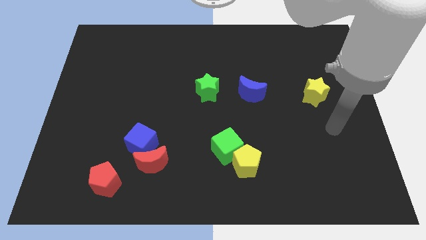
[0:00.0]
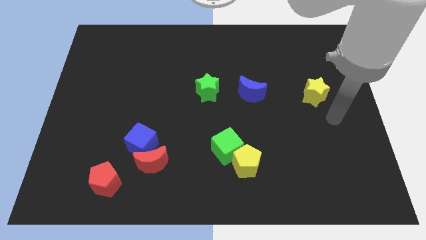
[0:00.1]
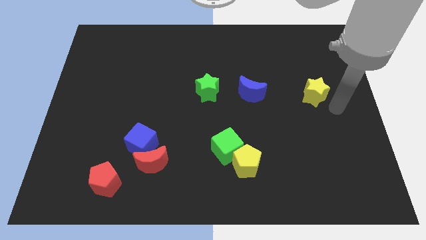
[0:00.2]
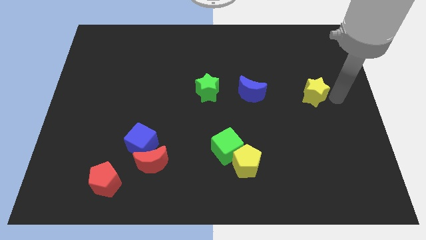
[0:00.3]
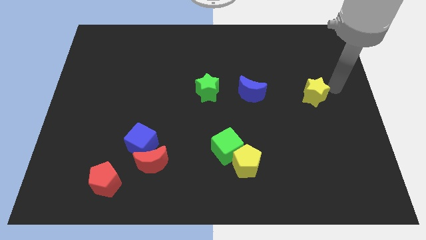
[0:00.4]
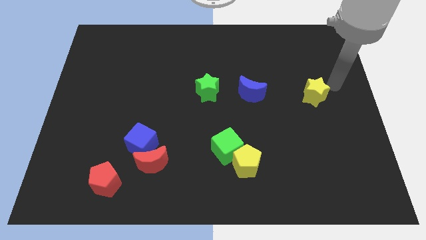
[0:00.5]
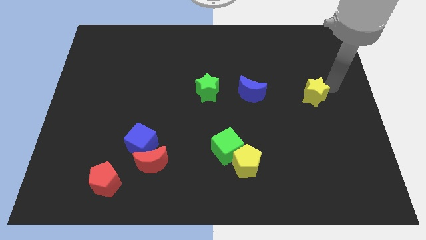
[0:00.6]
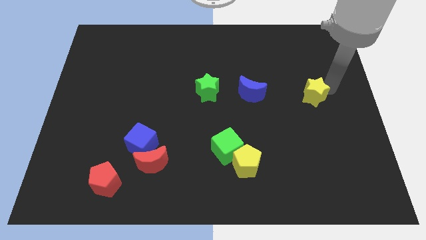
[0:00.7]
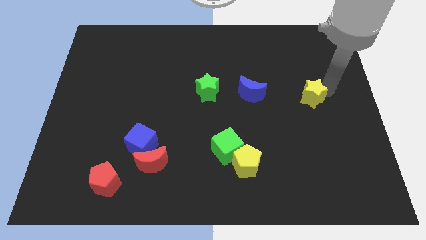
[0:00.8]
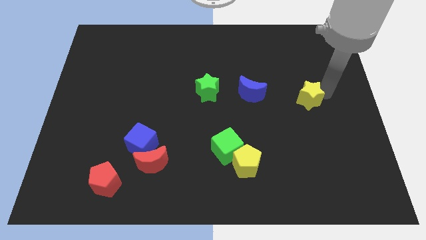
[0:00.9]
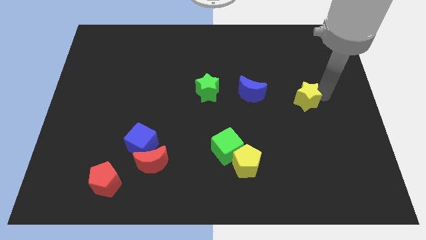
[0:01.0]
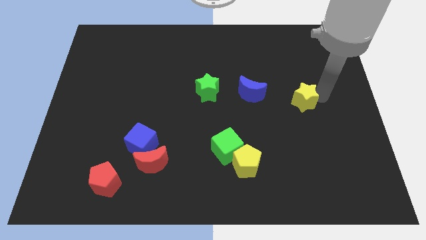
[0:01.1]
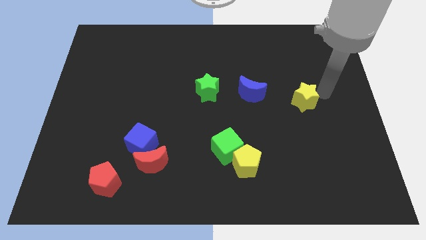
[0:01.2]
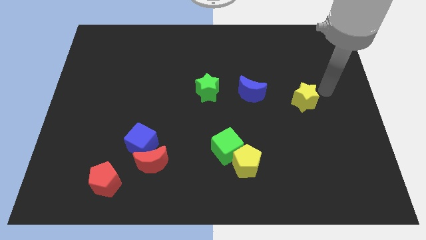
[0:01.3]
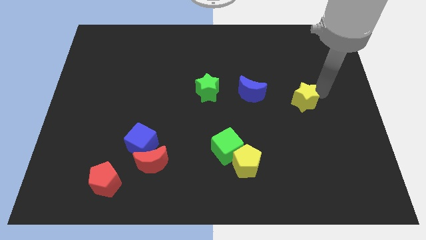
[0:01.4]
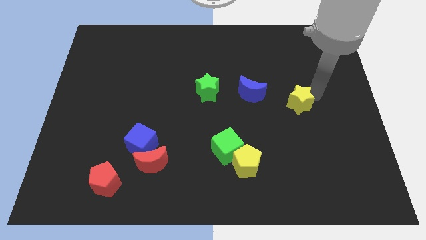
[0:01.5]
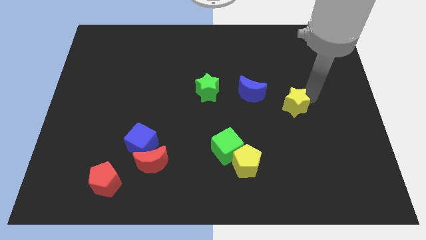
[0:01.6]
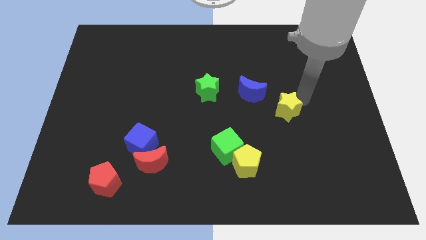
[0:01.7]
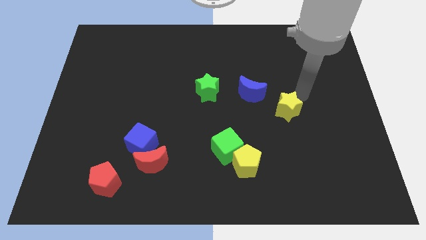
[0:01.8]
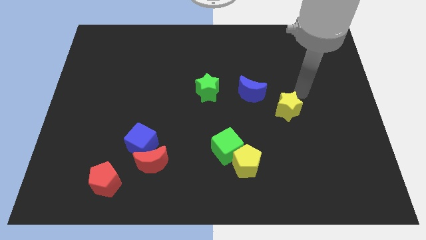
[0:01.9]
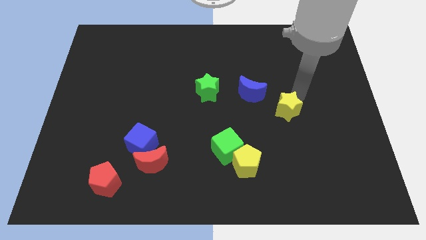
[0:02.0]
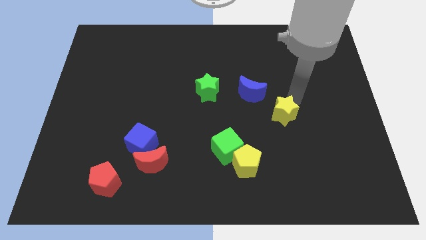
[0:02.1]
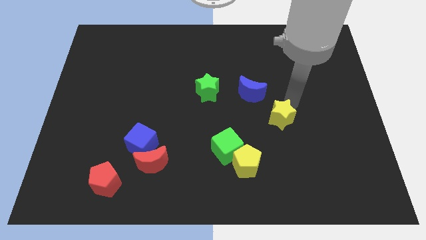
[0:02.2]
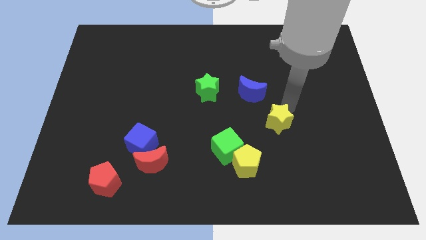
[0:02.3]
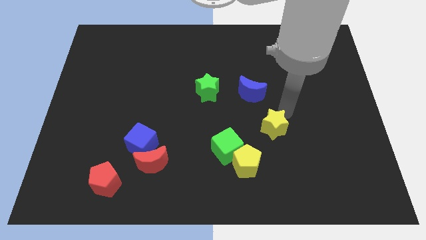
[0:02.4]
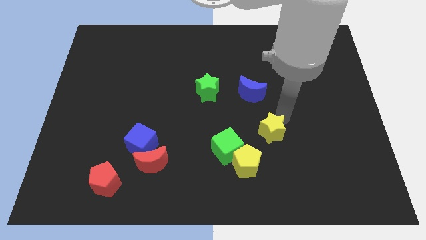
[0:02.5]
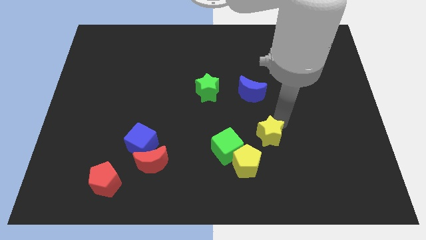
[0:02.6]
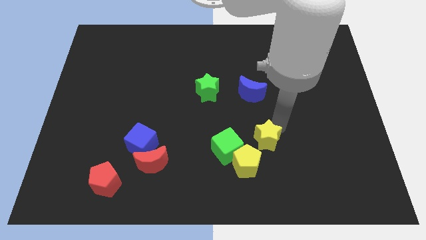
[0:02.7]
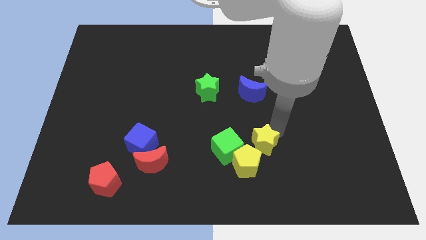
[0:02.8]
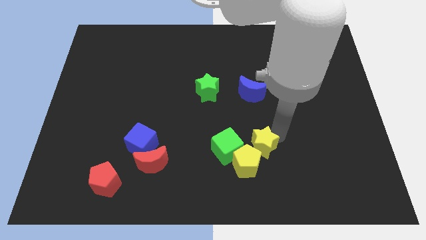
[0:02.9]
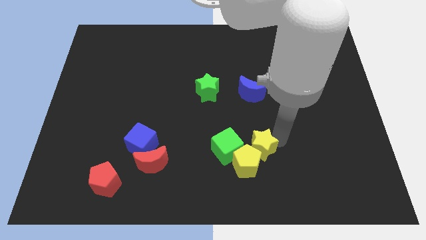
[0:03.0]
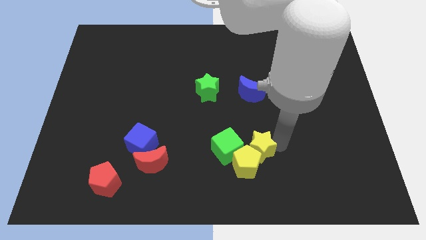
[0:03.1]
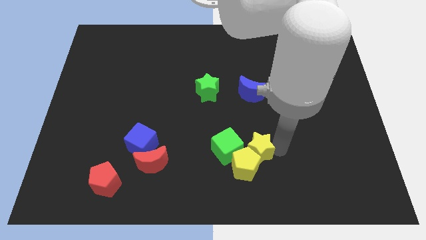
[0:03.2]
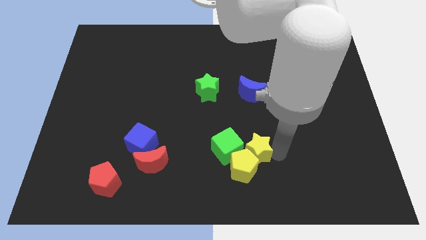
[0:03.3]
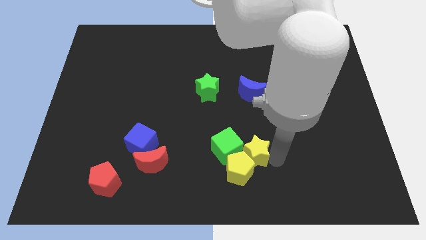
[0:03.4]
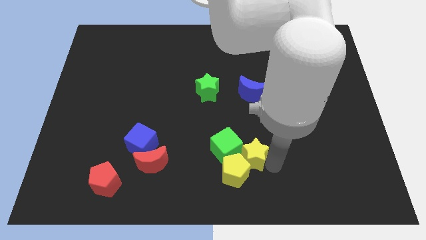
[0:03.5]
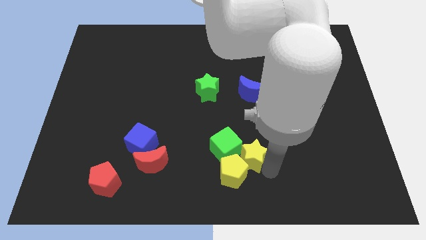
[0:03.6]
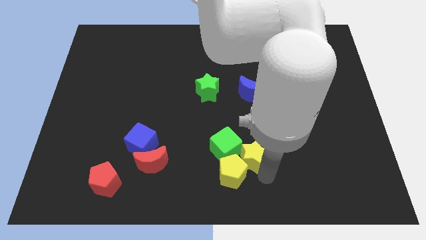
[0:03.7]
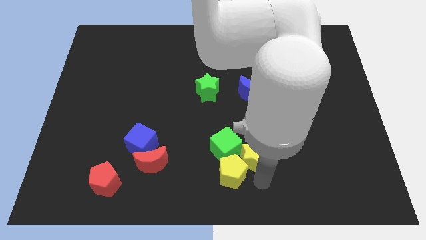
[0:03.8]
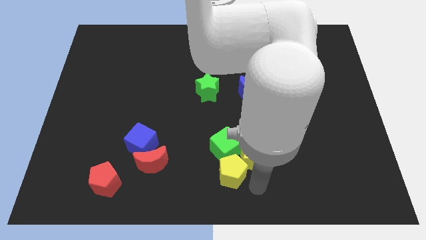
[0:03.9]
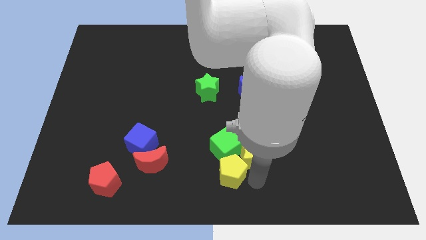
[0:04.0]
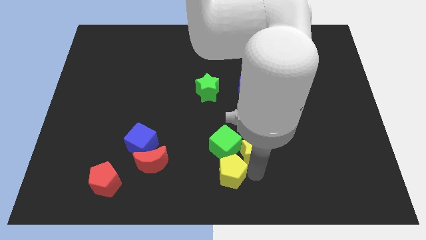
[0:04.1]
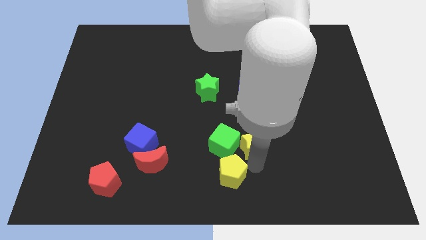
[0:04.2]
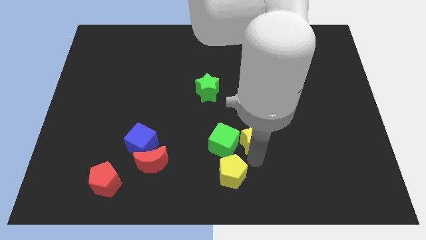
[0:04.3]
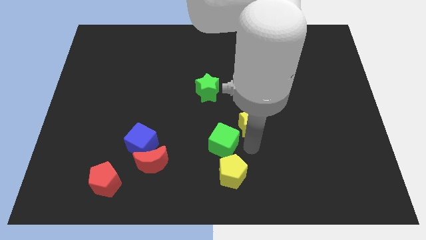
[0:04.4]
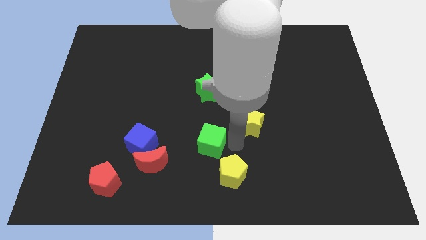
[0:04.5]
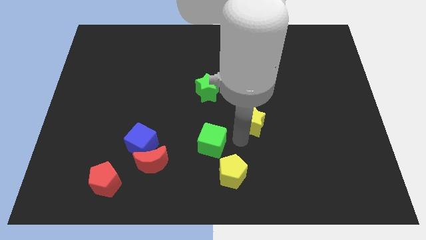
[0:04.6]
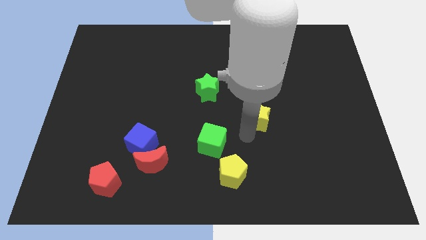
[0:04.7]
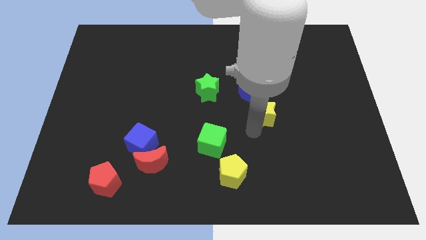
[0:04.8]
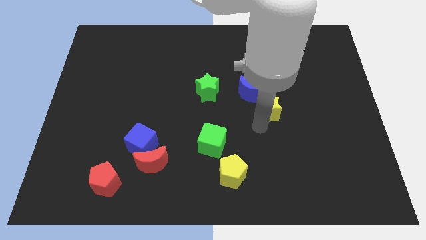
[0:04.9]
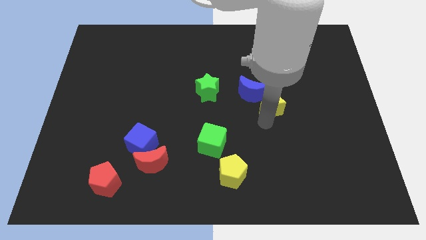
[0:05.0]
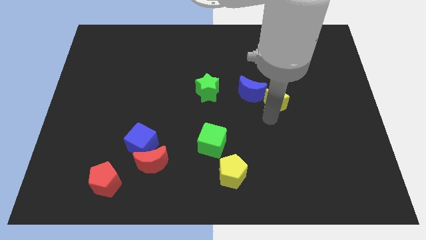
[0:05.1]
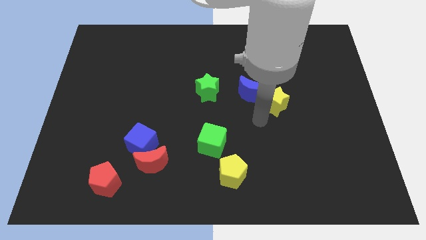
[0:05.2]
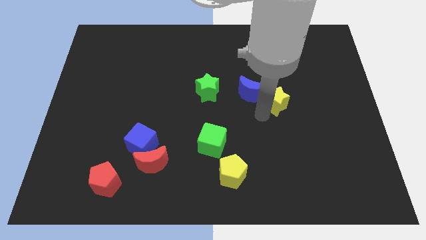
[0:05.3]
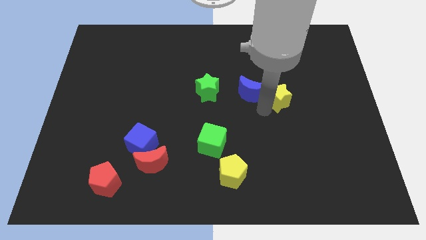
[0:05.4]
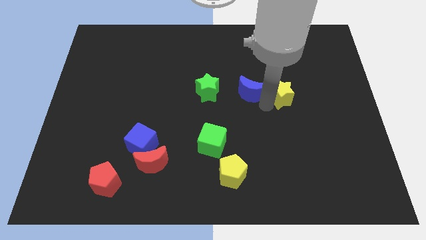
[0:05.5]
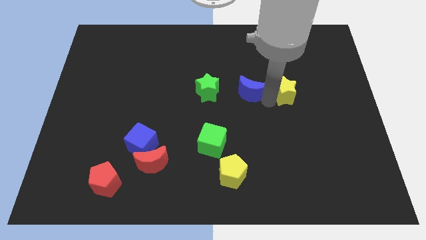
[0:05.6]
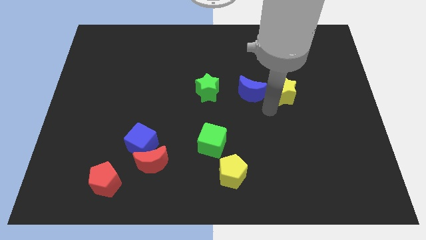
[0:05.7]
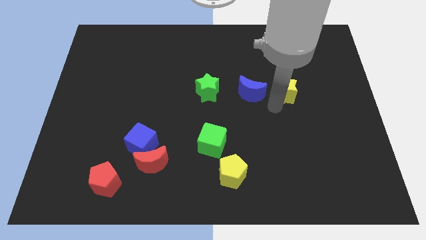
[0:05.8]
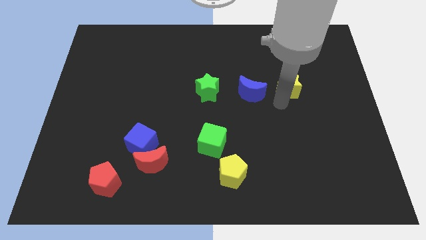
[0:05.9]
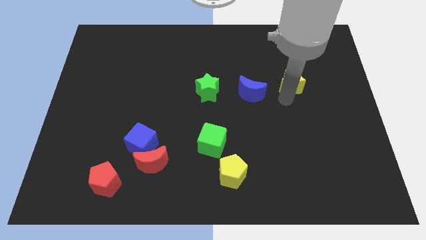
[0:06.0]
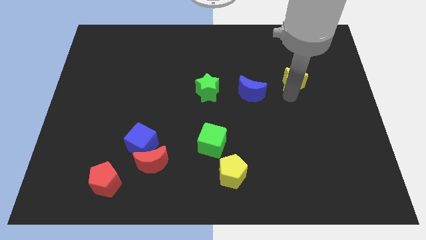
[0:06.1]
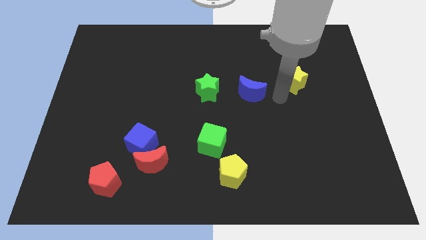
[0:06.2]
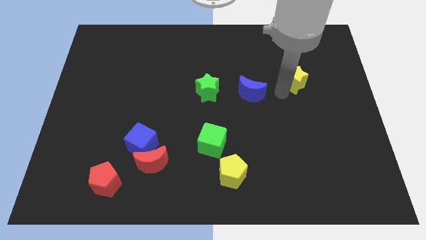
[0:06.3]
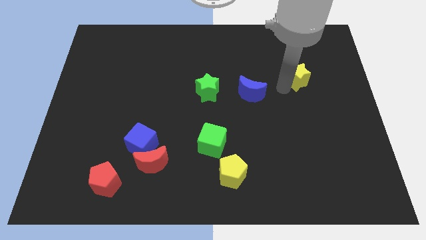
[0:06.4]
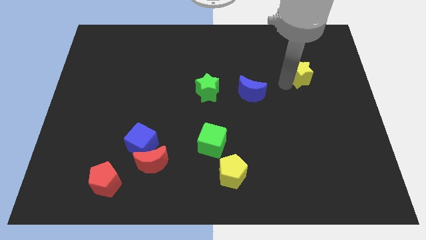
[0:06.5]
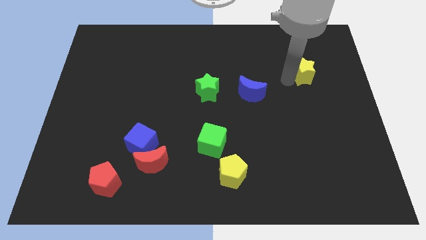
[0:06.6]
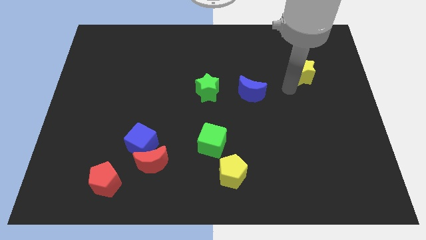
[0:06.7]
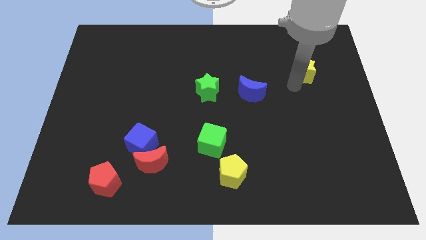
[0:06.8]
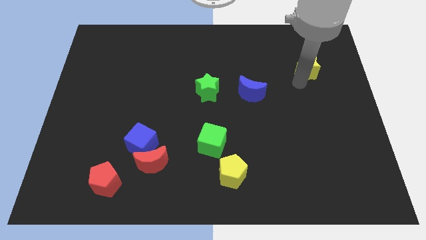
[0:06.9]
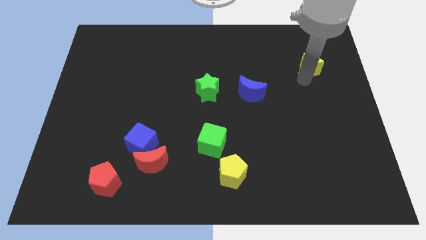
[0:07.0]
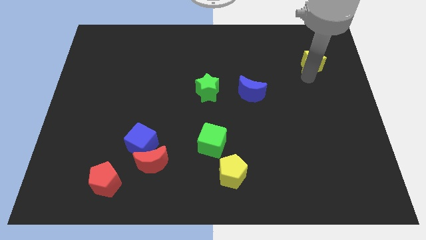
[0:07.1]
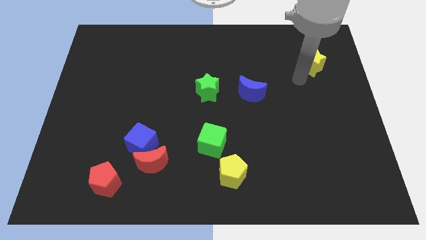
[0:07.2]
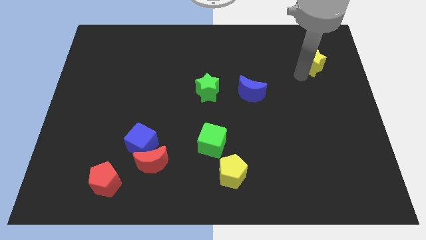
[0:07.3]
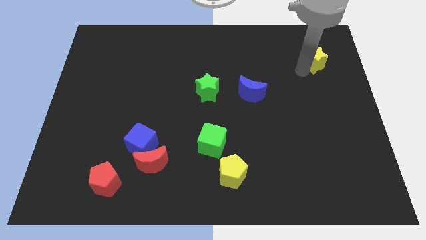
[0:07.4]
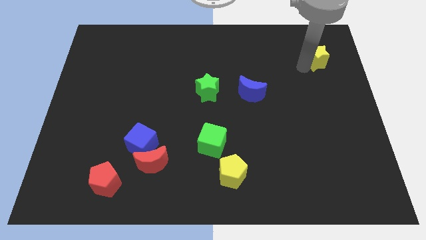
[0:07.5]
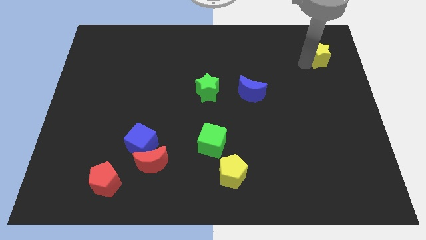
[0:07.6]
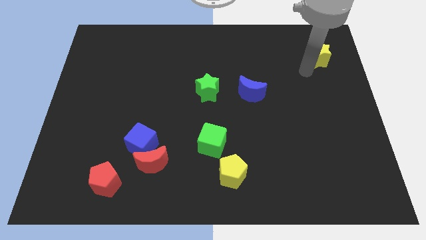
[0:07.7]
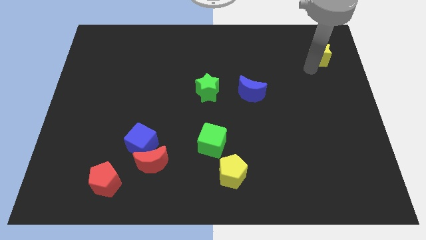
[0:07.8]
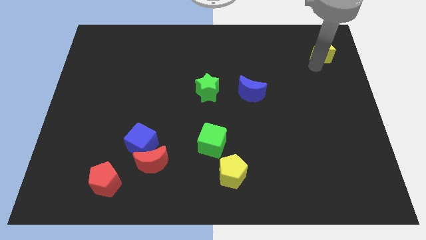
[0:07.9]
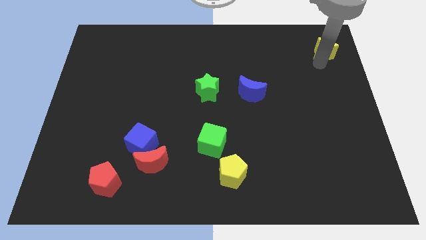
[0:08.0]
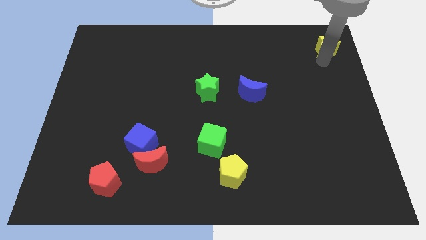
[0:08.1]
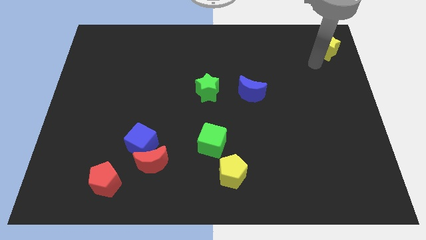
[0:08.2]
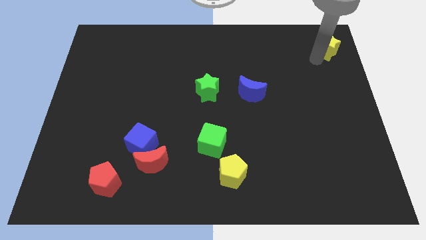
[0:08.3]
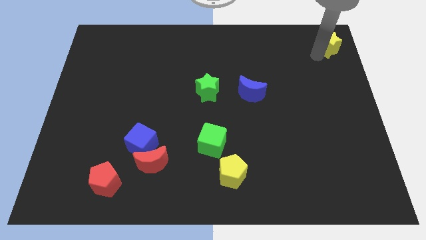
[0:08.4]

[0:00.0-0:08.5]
put the yellow star to the top right
